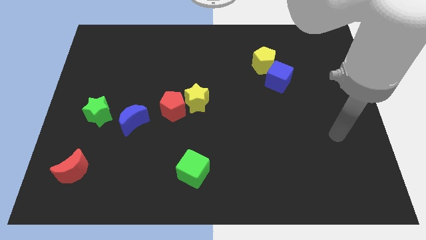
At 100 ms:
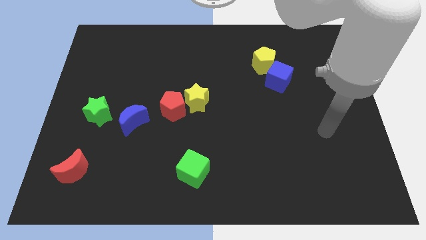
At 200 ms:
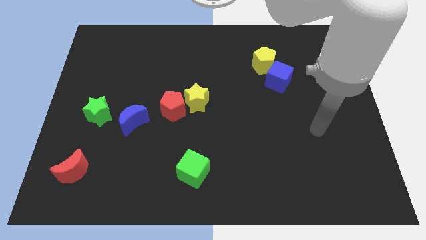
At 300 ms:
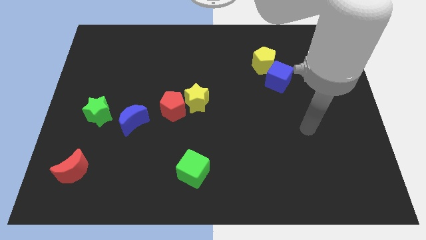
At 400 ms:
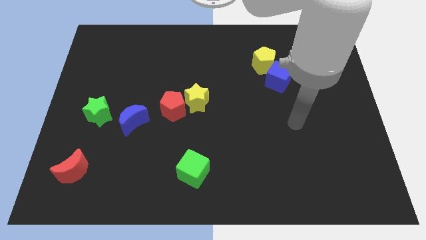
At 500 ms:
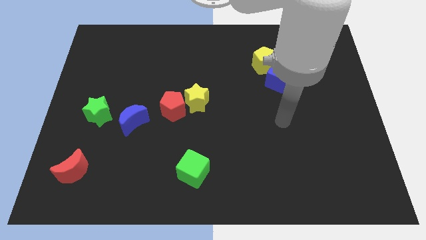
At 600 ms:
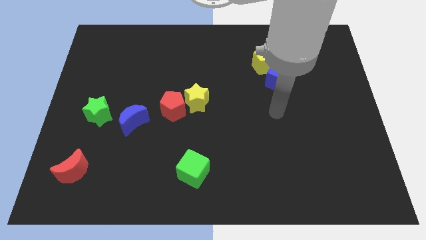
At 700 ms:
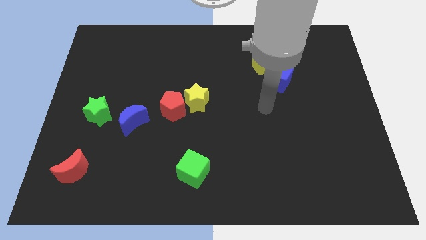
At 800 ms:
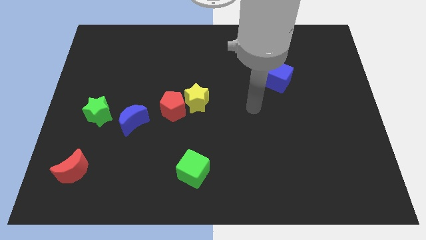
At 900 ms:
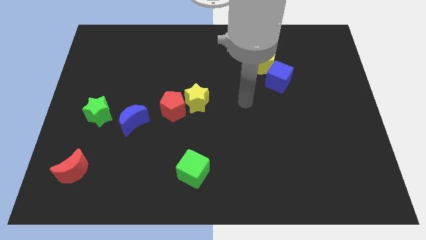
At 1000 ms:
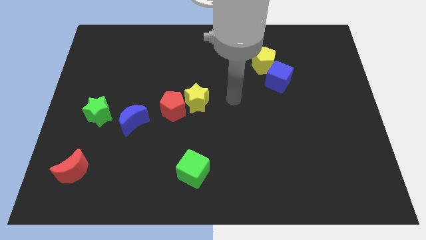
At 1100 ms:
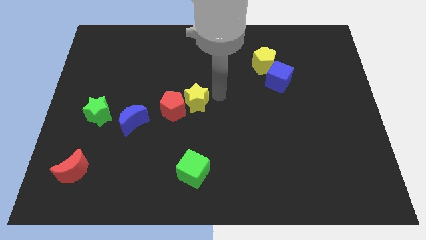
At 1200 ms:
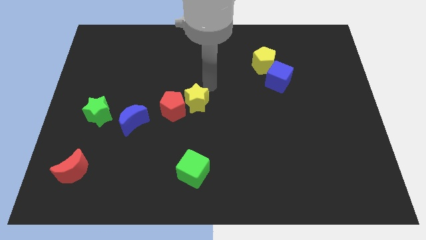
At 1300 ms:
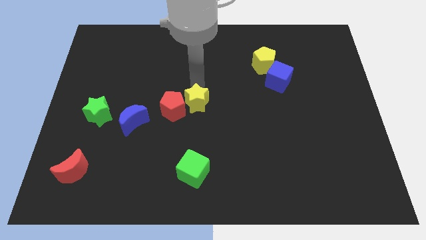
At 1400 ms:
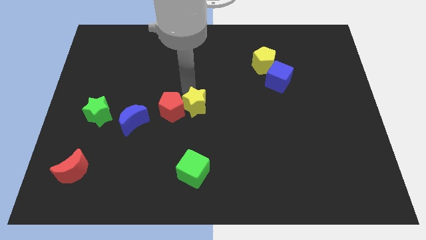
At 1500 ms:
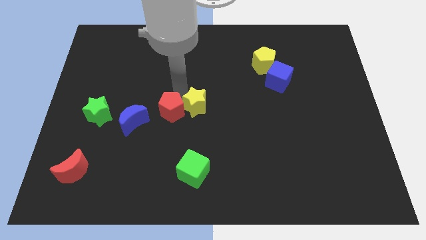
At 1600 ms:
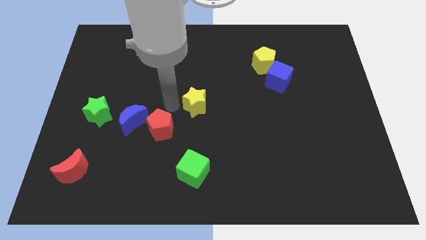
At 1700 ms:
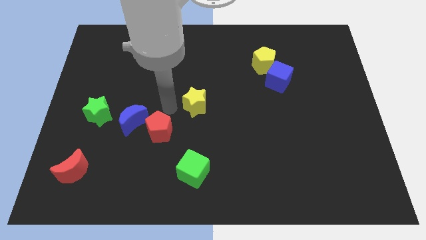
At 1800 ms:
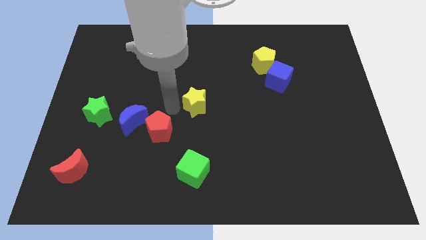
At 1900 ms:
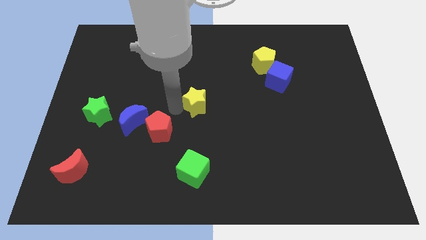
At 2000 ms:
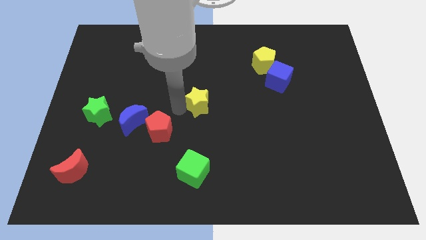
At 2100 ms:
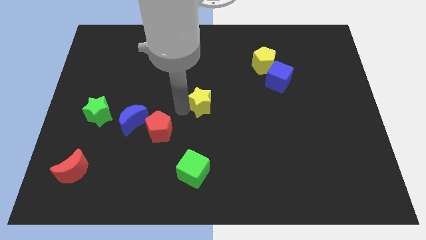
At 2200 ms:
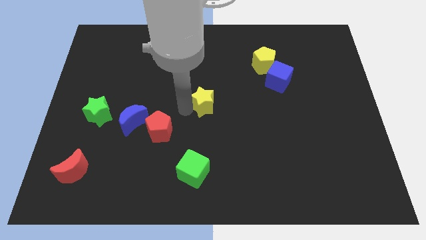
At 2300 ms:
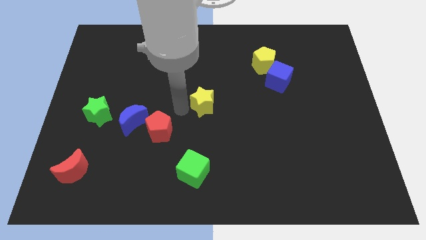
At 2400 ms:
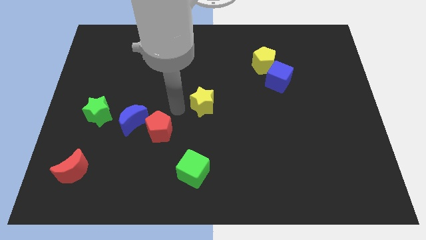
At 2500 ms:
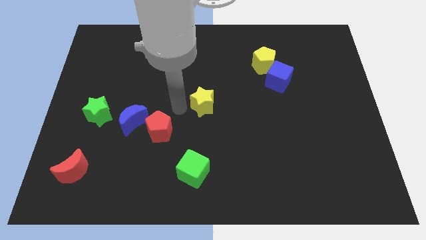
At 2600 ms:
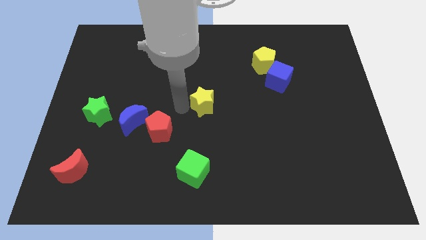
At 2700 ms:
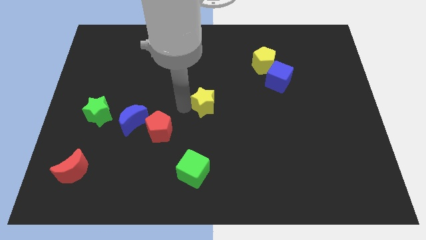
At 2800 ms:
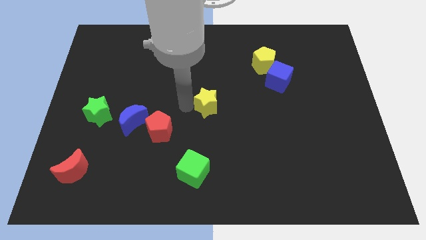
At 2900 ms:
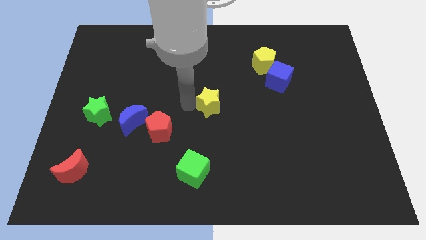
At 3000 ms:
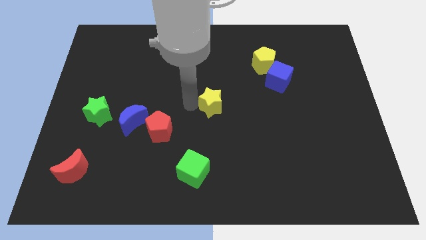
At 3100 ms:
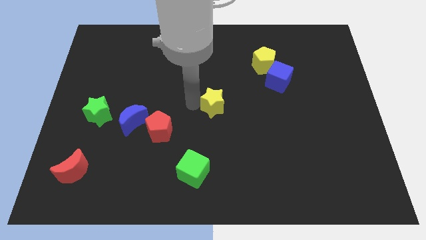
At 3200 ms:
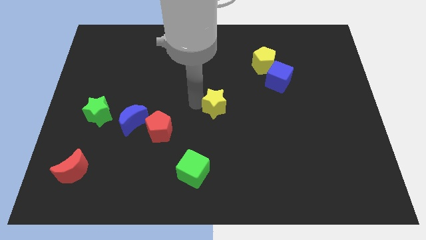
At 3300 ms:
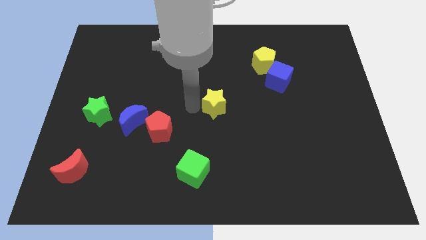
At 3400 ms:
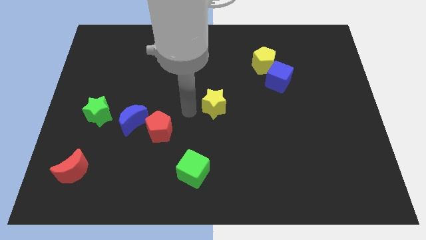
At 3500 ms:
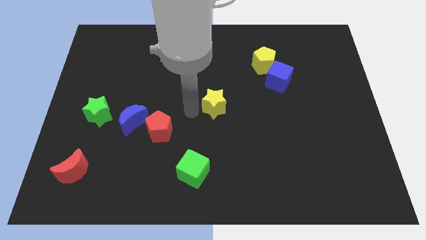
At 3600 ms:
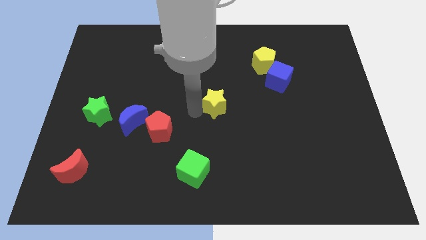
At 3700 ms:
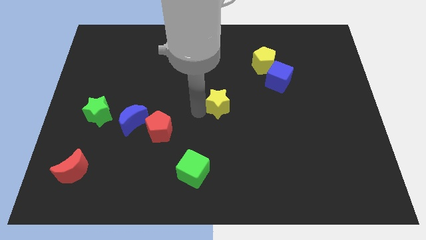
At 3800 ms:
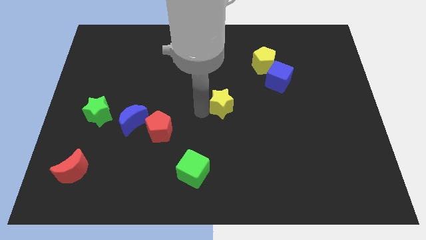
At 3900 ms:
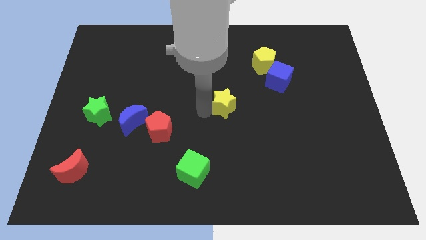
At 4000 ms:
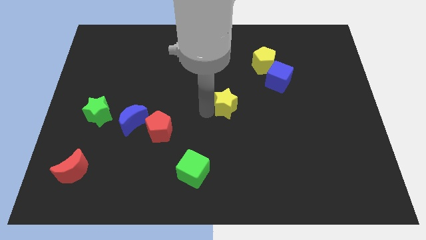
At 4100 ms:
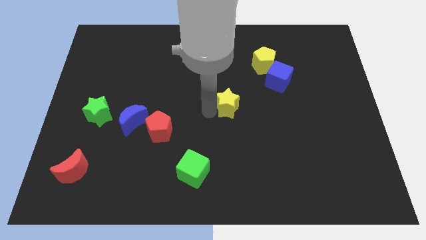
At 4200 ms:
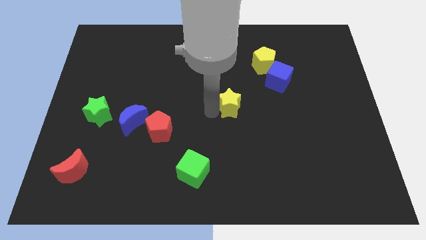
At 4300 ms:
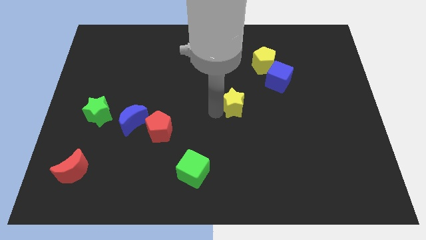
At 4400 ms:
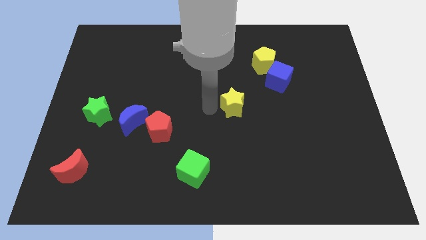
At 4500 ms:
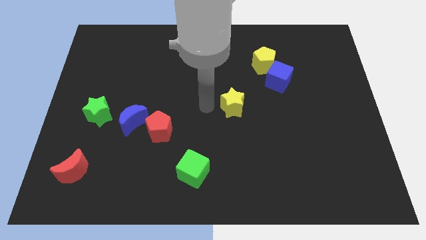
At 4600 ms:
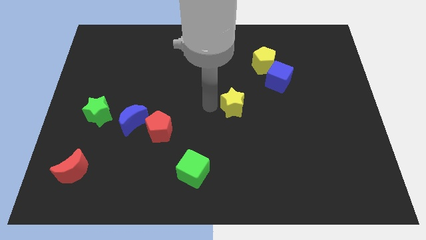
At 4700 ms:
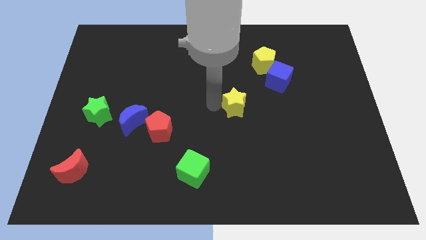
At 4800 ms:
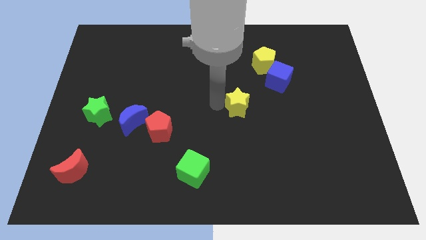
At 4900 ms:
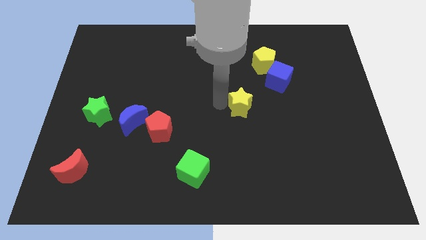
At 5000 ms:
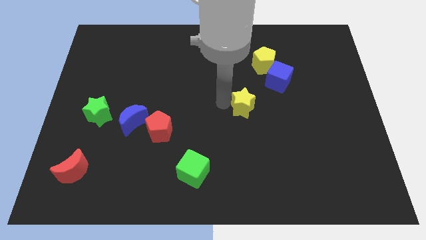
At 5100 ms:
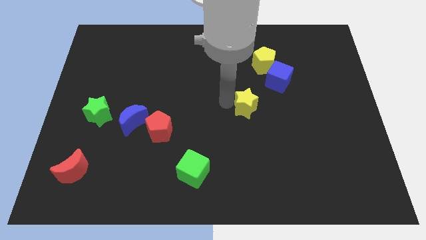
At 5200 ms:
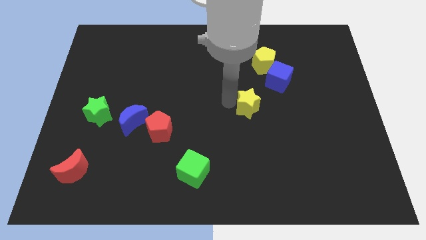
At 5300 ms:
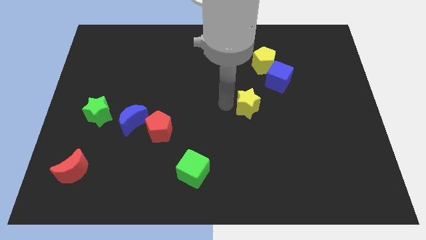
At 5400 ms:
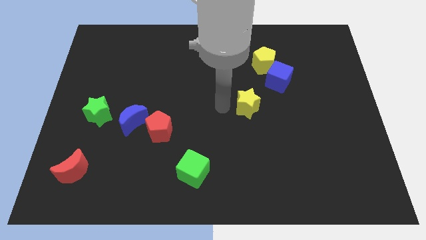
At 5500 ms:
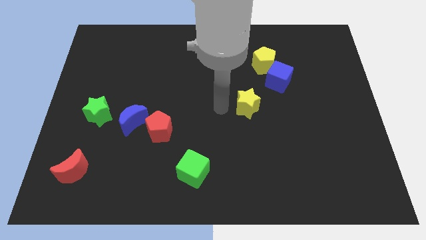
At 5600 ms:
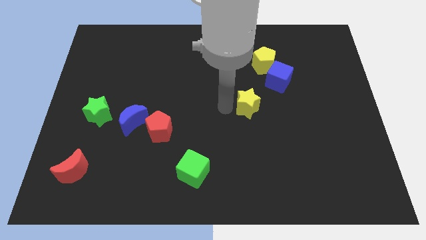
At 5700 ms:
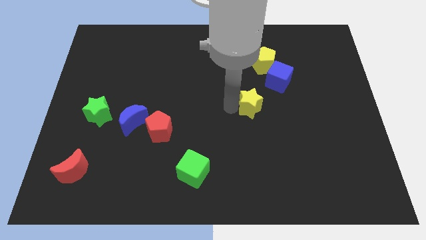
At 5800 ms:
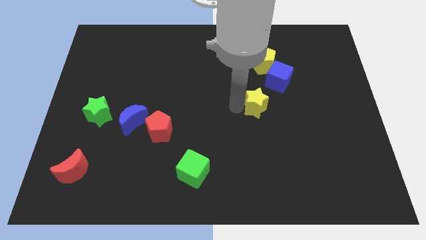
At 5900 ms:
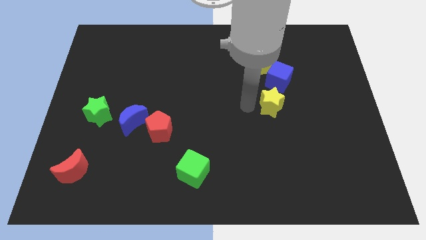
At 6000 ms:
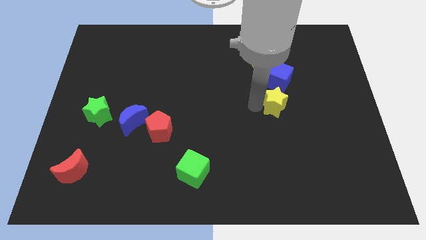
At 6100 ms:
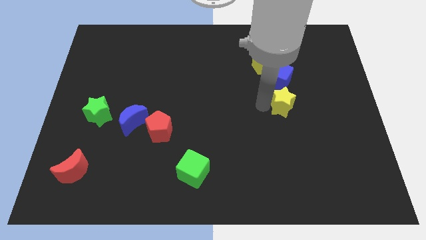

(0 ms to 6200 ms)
push the yellow star right

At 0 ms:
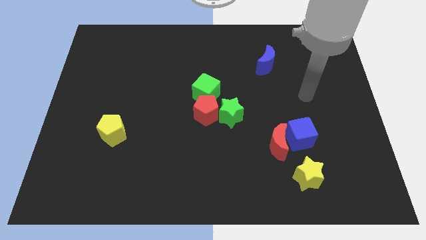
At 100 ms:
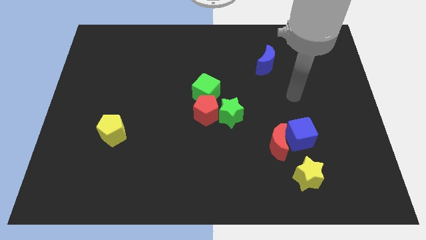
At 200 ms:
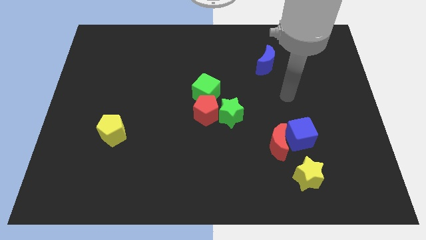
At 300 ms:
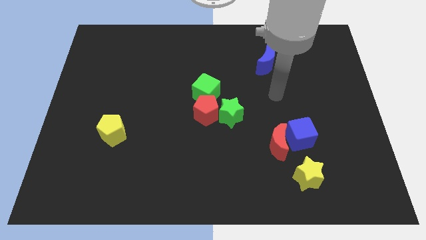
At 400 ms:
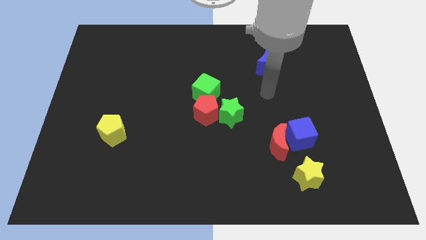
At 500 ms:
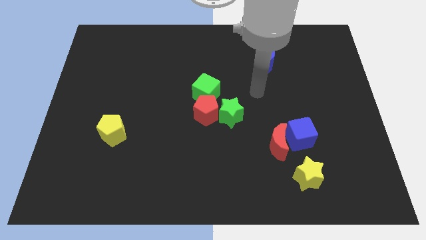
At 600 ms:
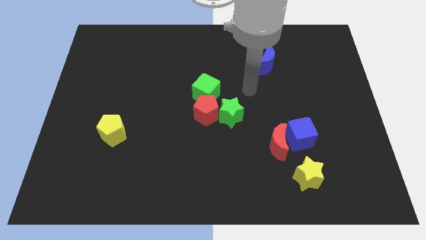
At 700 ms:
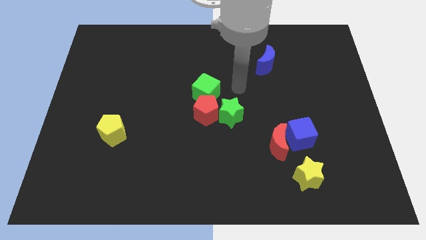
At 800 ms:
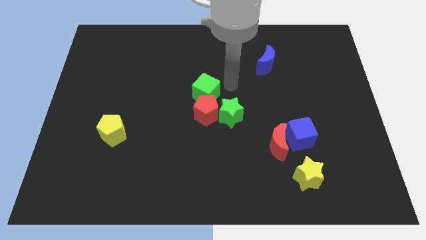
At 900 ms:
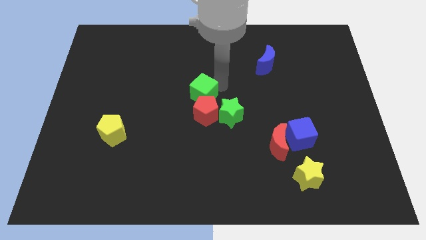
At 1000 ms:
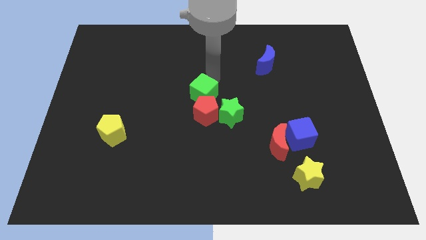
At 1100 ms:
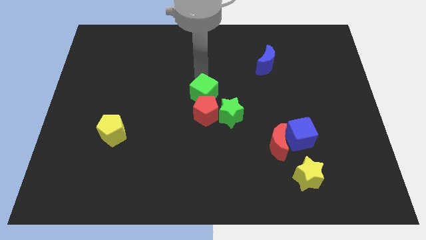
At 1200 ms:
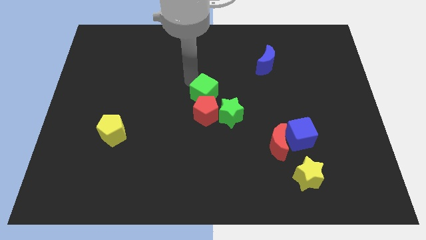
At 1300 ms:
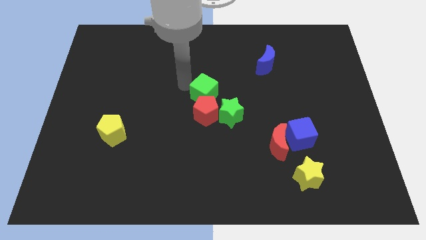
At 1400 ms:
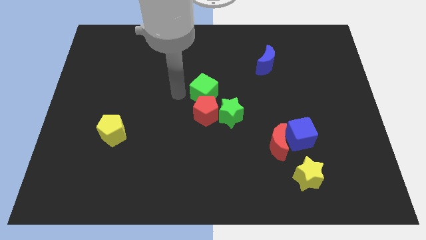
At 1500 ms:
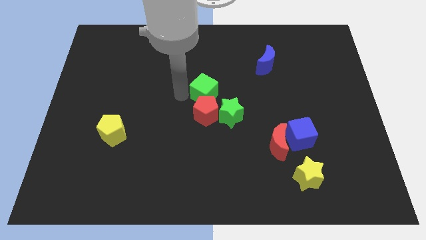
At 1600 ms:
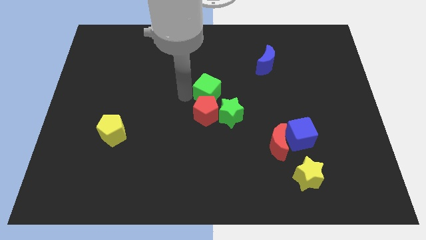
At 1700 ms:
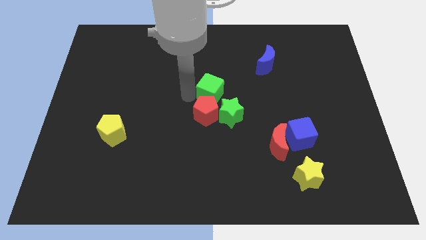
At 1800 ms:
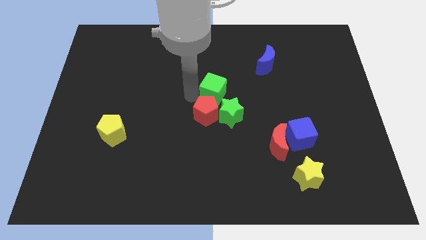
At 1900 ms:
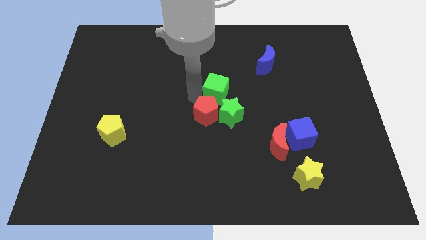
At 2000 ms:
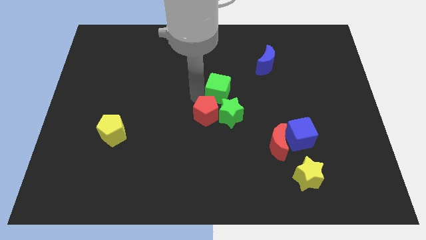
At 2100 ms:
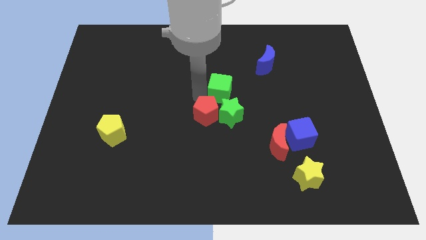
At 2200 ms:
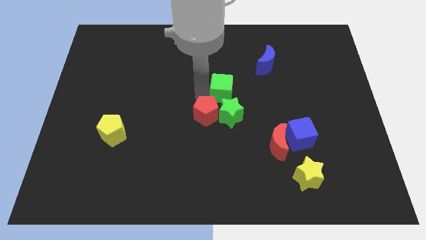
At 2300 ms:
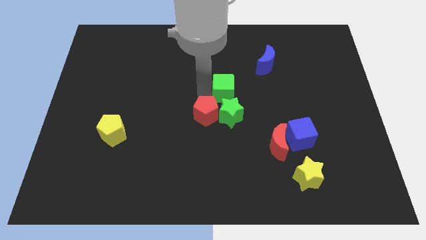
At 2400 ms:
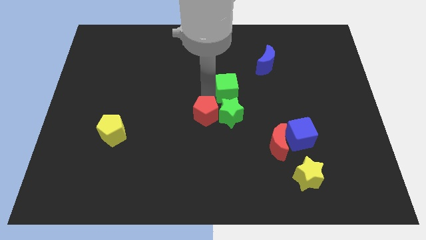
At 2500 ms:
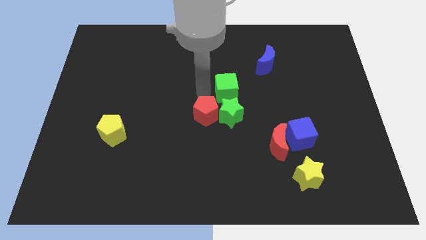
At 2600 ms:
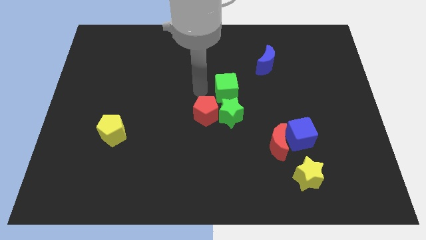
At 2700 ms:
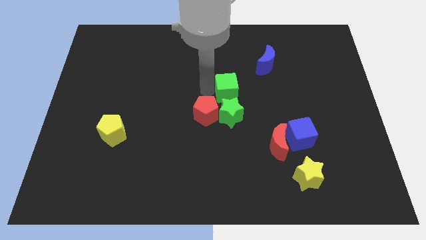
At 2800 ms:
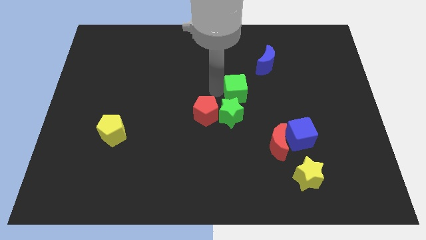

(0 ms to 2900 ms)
slide the green cube a little bit to the right
